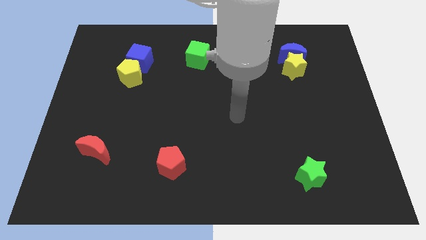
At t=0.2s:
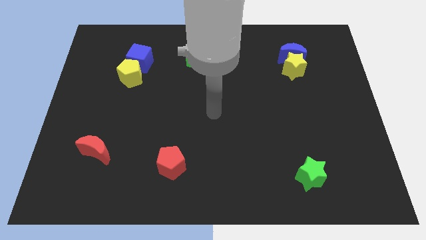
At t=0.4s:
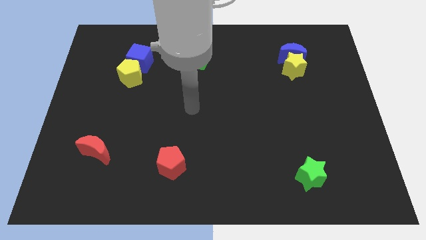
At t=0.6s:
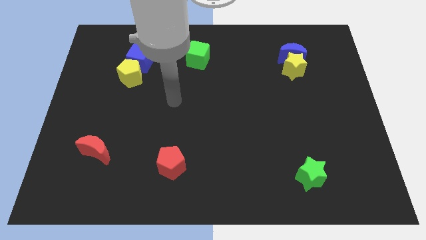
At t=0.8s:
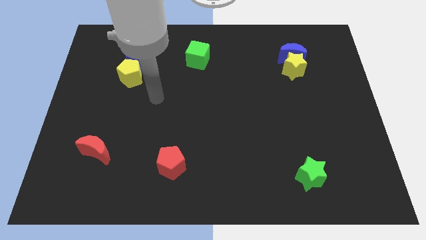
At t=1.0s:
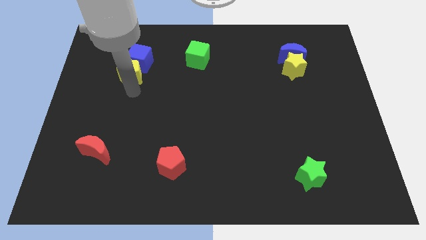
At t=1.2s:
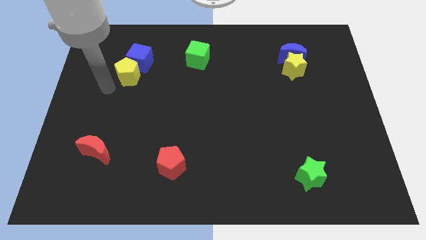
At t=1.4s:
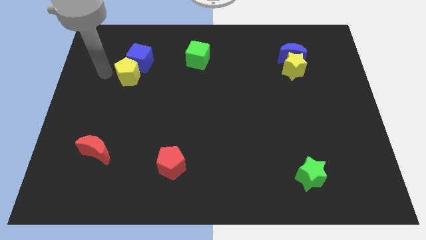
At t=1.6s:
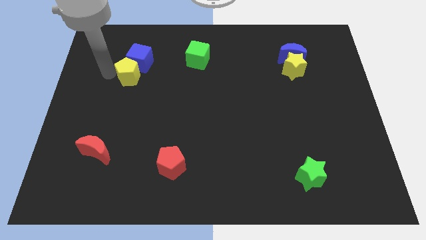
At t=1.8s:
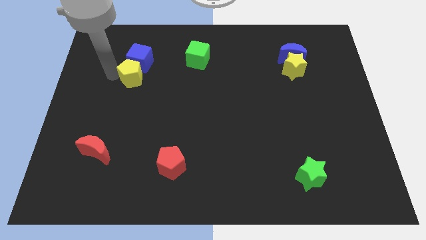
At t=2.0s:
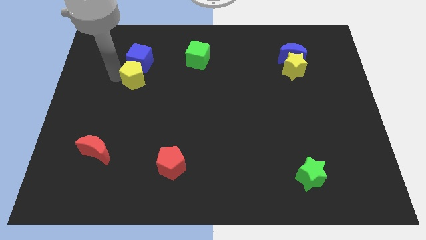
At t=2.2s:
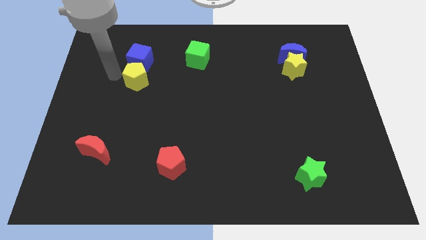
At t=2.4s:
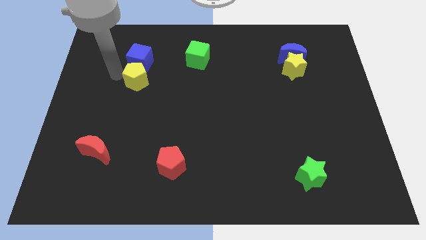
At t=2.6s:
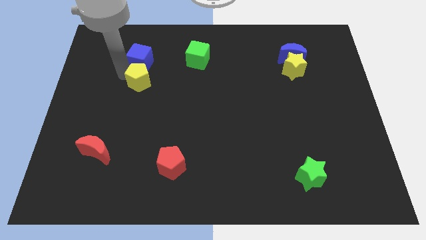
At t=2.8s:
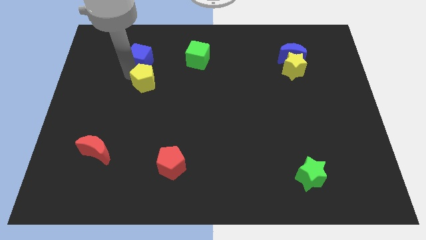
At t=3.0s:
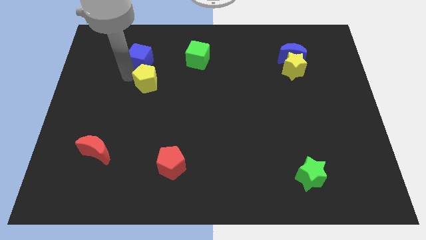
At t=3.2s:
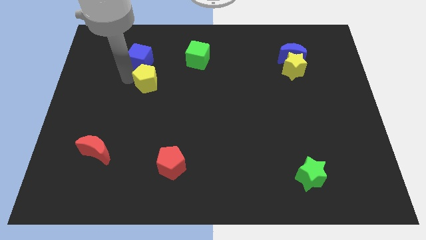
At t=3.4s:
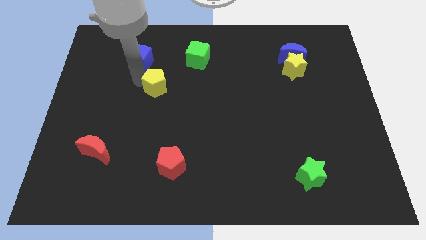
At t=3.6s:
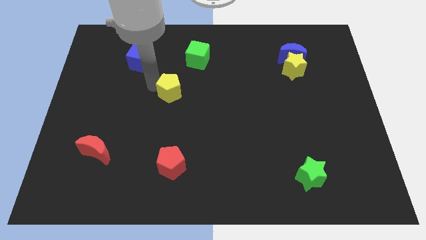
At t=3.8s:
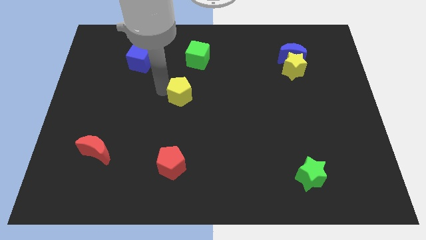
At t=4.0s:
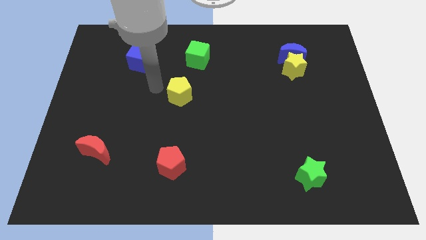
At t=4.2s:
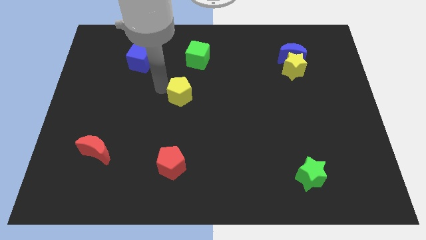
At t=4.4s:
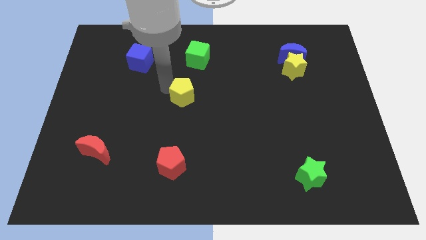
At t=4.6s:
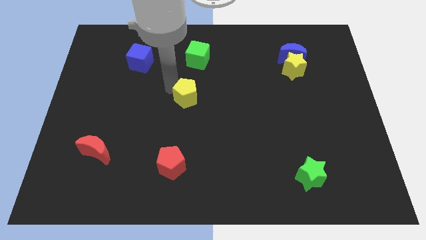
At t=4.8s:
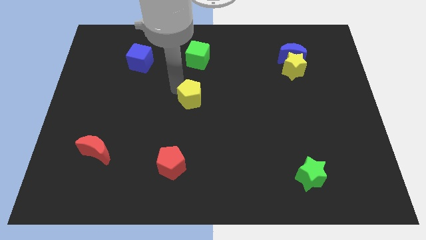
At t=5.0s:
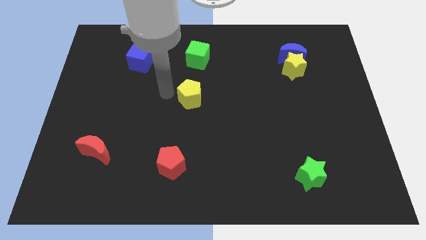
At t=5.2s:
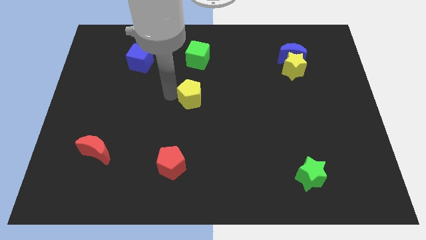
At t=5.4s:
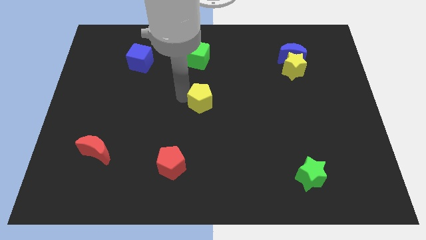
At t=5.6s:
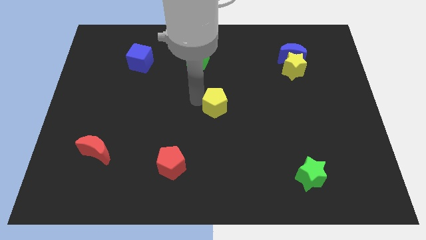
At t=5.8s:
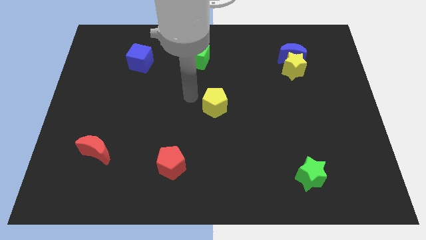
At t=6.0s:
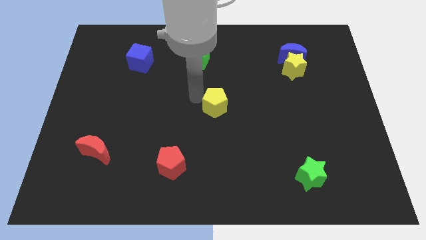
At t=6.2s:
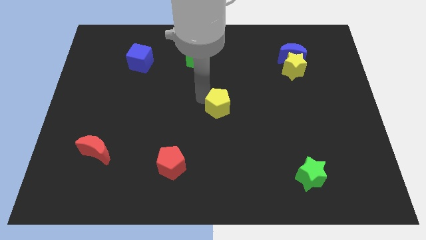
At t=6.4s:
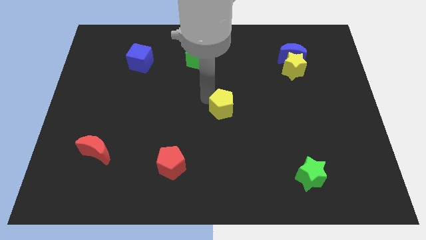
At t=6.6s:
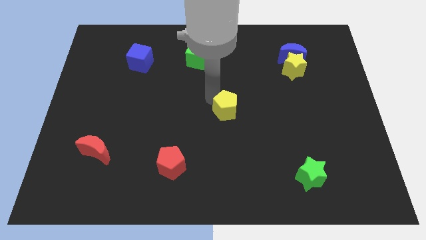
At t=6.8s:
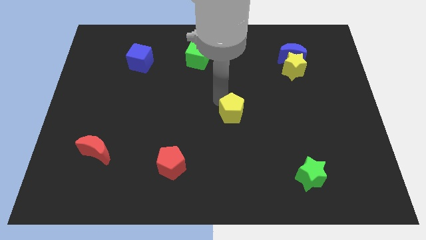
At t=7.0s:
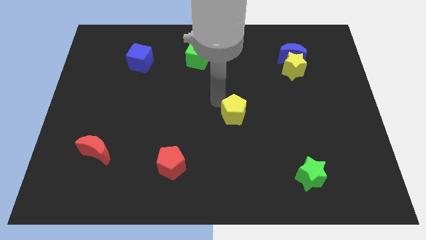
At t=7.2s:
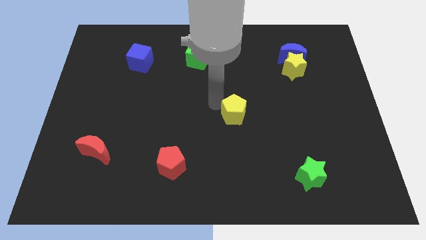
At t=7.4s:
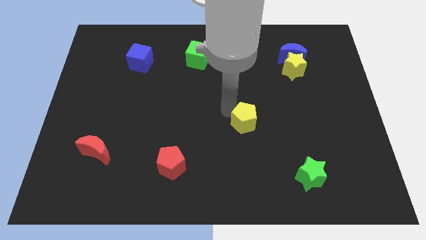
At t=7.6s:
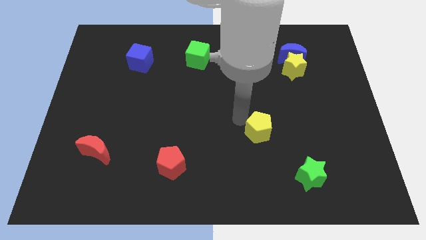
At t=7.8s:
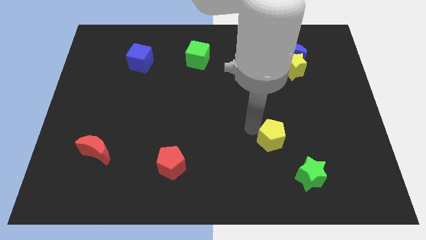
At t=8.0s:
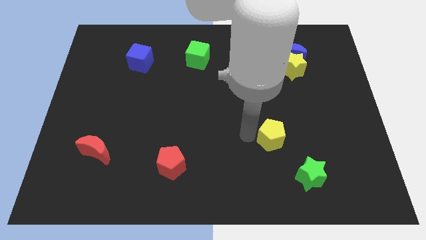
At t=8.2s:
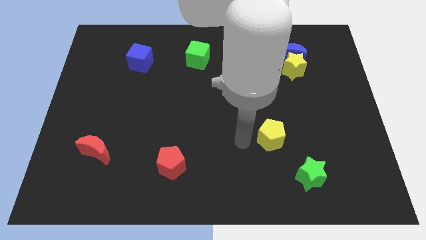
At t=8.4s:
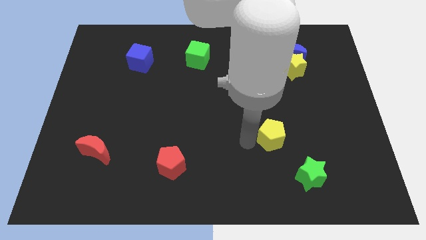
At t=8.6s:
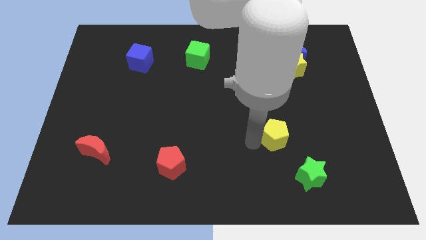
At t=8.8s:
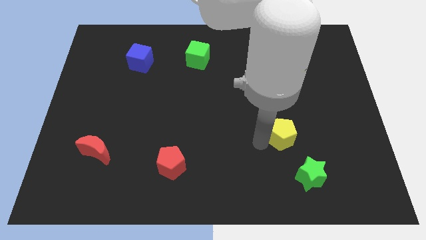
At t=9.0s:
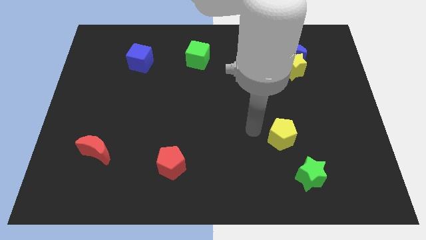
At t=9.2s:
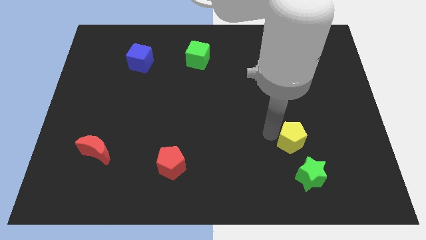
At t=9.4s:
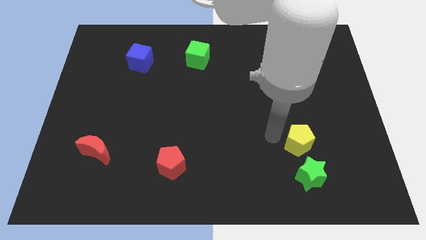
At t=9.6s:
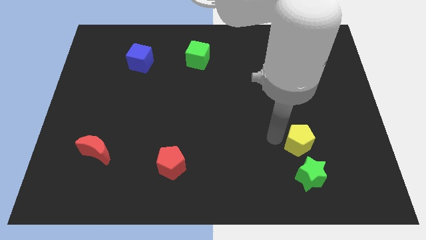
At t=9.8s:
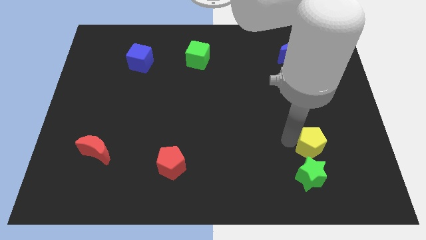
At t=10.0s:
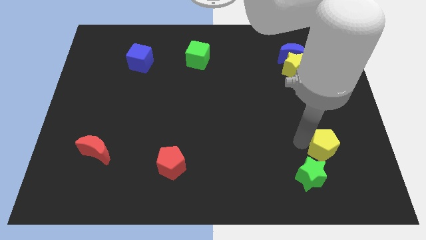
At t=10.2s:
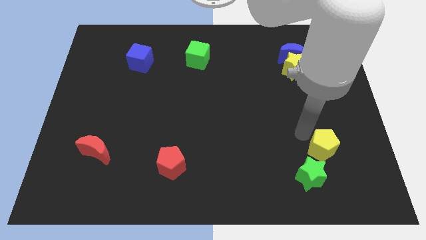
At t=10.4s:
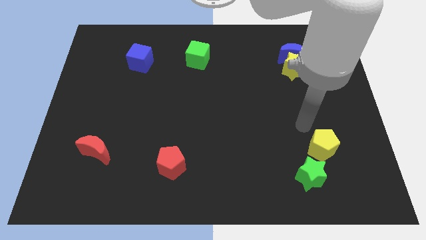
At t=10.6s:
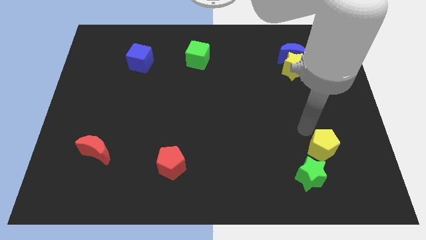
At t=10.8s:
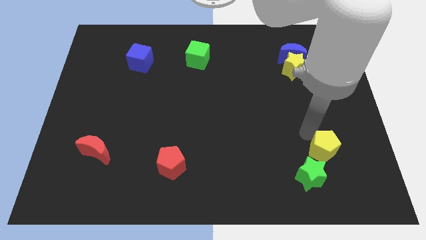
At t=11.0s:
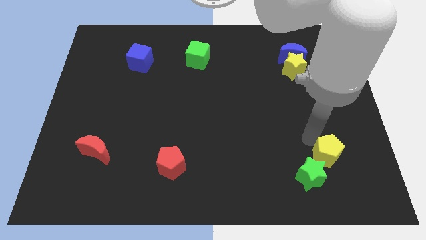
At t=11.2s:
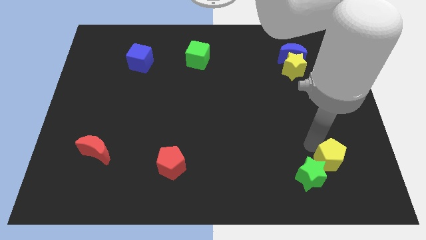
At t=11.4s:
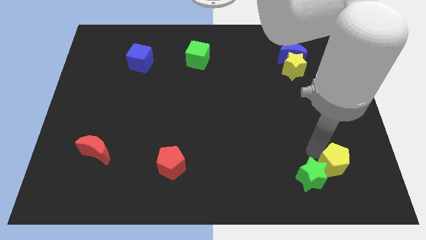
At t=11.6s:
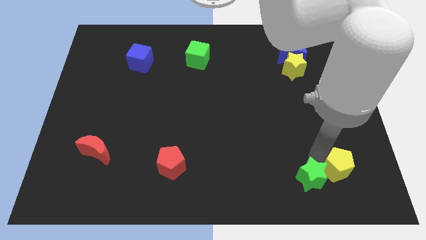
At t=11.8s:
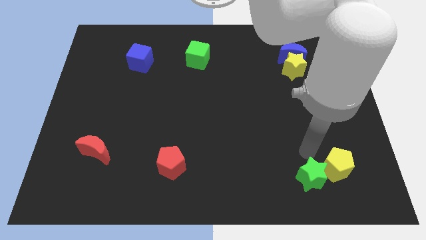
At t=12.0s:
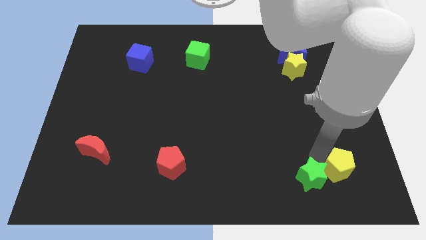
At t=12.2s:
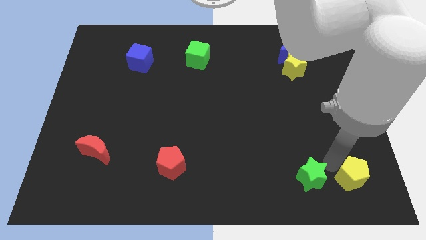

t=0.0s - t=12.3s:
push the yellow pentagon to the bottom right of the board
